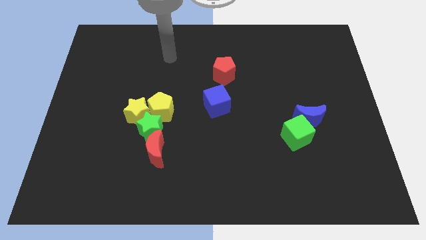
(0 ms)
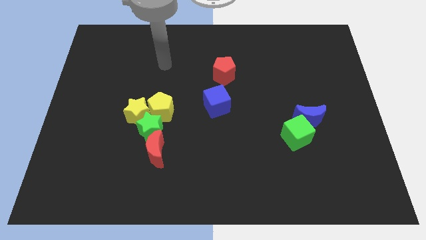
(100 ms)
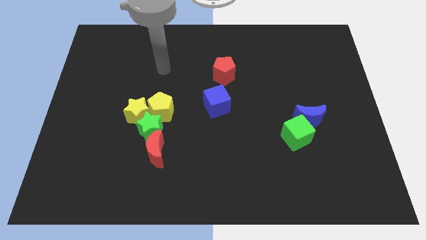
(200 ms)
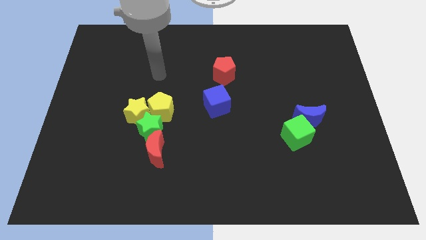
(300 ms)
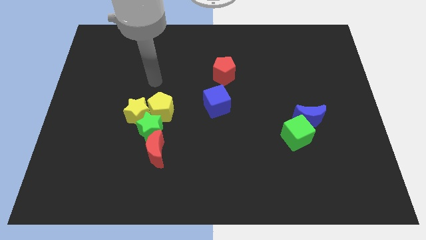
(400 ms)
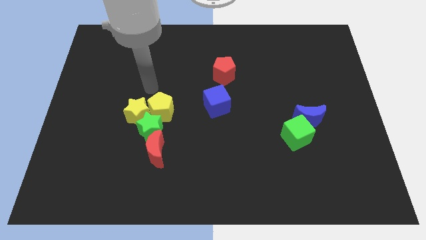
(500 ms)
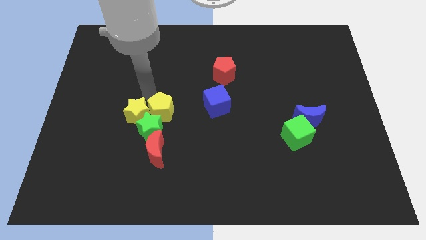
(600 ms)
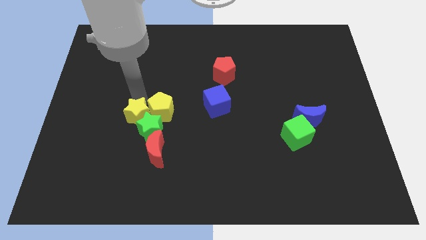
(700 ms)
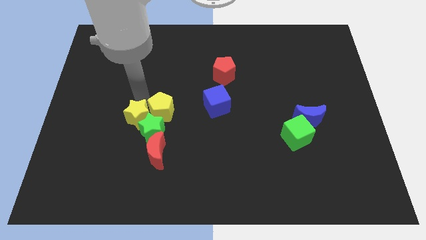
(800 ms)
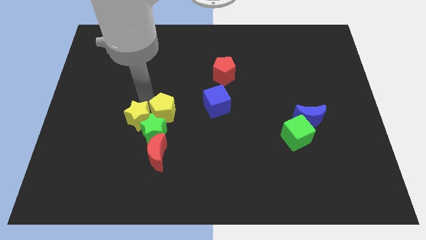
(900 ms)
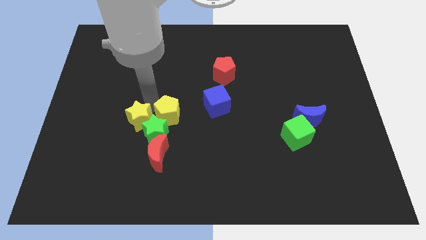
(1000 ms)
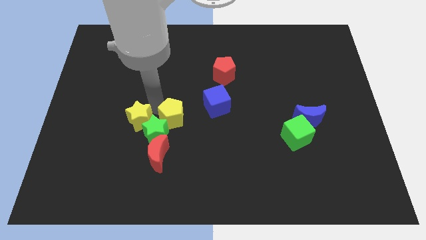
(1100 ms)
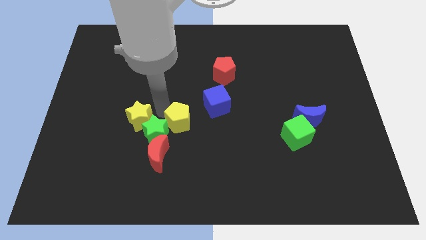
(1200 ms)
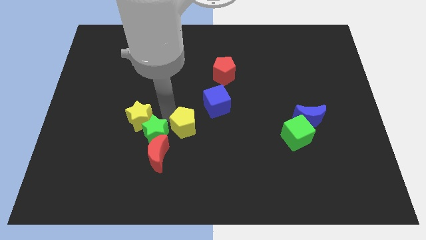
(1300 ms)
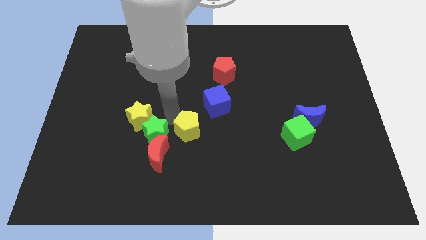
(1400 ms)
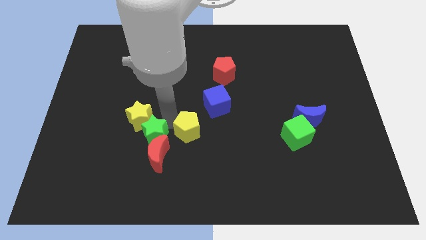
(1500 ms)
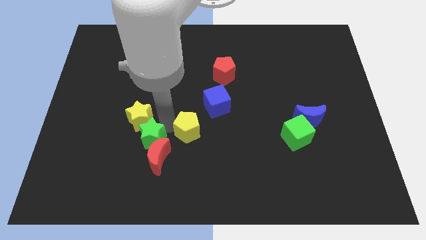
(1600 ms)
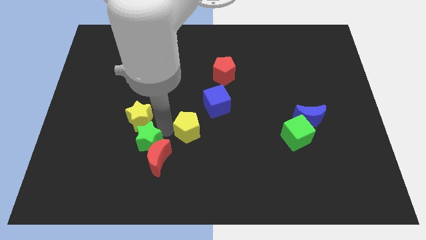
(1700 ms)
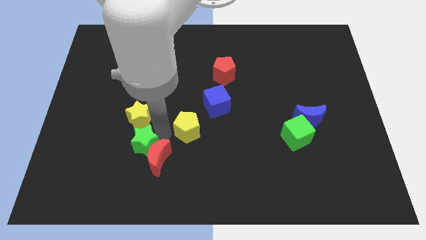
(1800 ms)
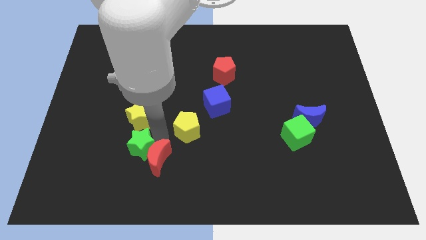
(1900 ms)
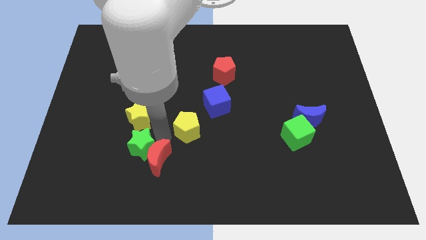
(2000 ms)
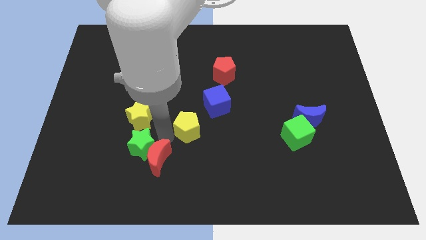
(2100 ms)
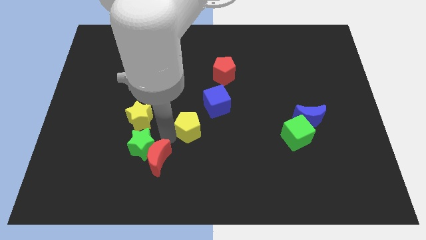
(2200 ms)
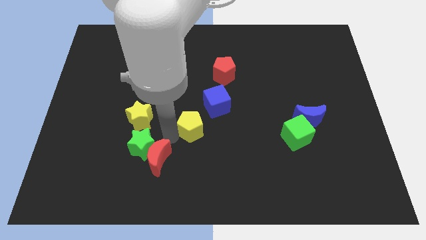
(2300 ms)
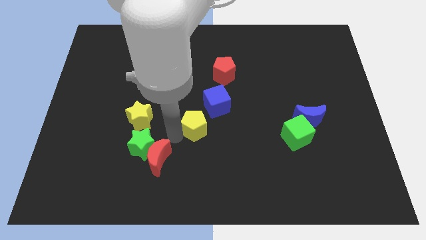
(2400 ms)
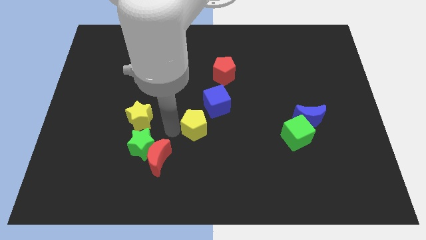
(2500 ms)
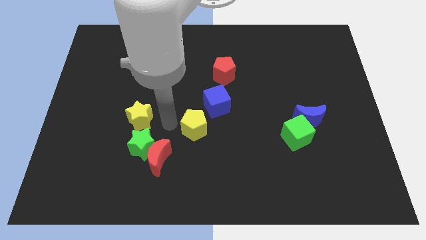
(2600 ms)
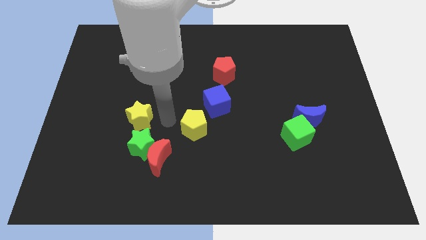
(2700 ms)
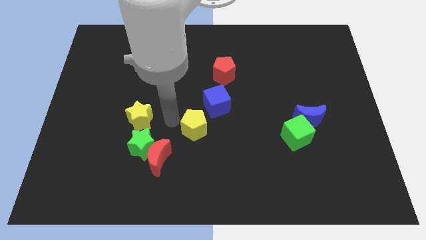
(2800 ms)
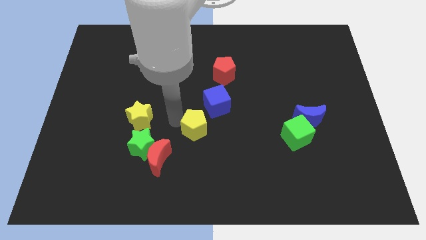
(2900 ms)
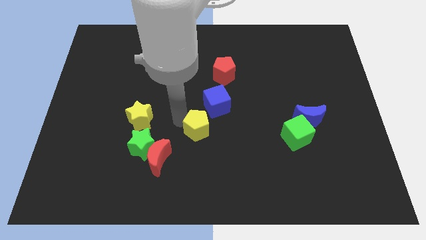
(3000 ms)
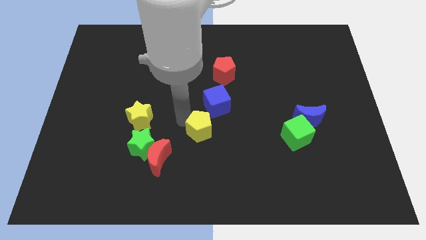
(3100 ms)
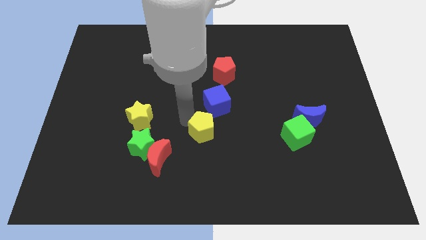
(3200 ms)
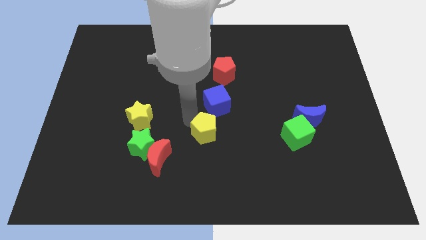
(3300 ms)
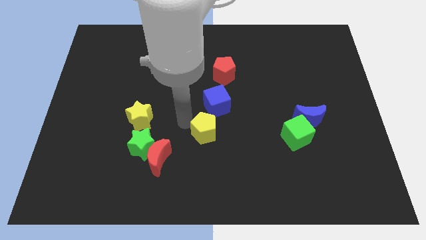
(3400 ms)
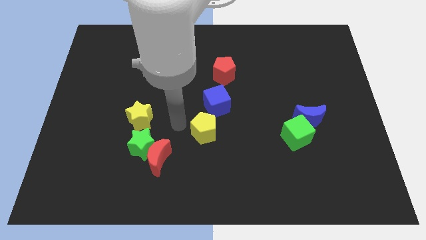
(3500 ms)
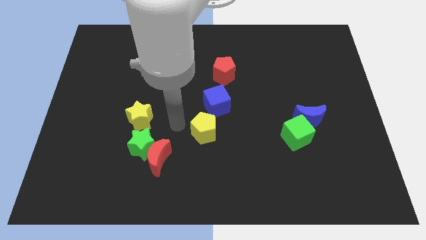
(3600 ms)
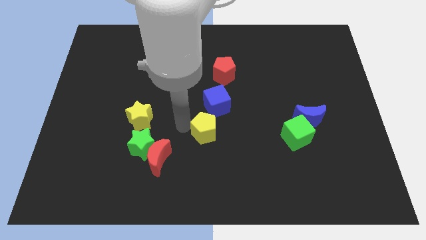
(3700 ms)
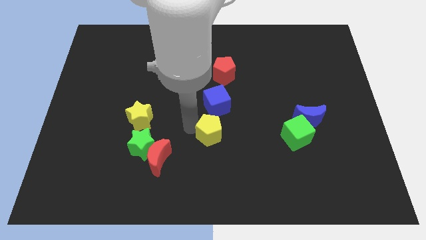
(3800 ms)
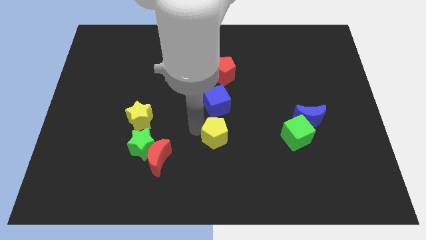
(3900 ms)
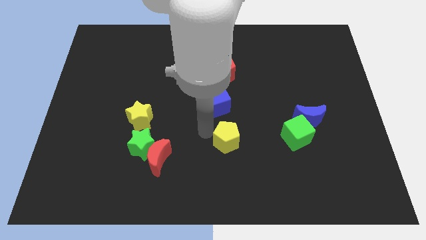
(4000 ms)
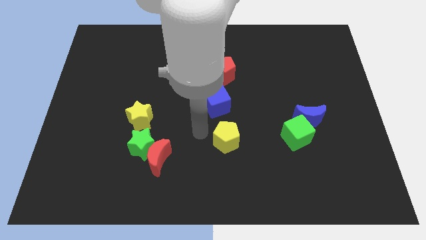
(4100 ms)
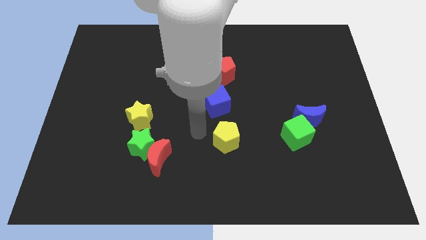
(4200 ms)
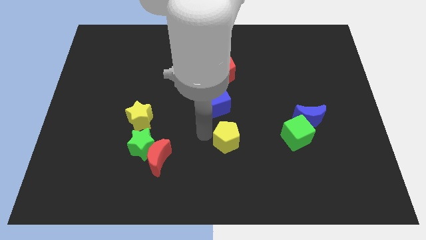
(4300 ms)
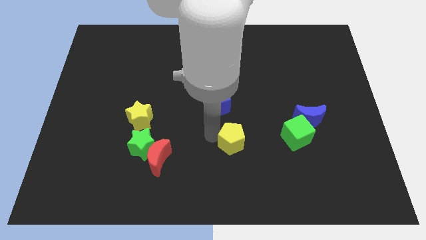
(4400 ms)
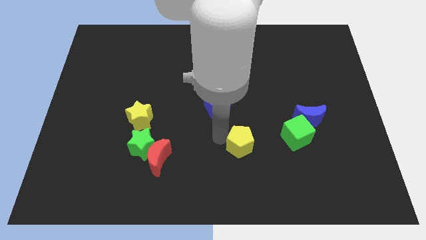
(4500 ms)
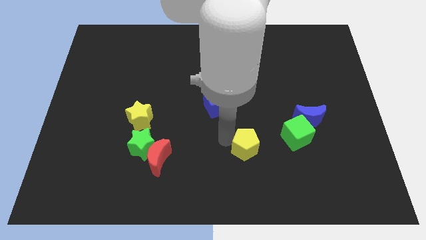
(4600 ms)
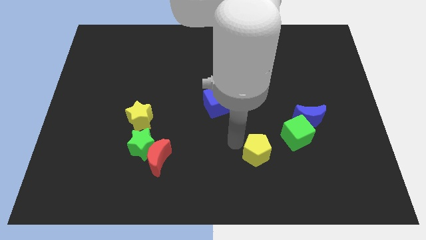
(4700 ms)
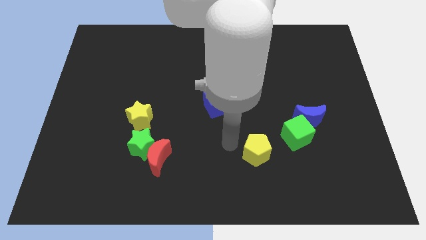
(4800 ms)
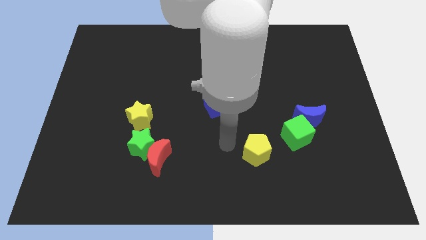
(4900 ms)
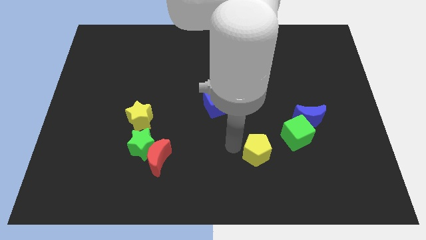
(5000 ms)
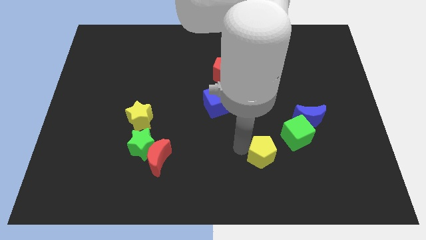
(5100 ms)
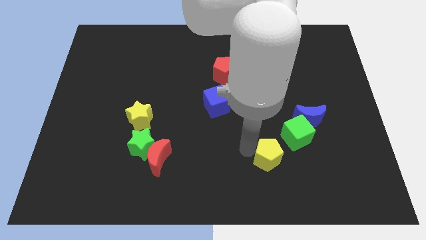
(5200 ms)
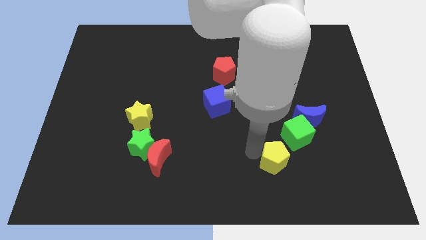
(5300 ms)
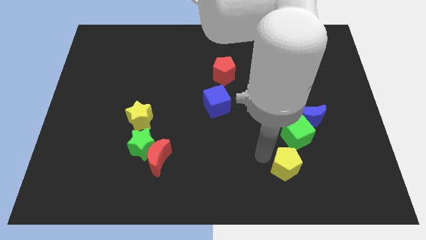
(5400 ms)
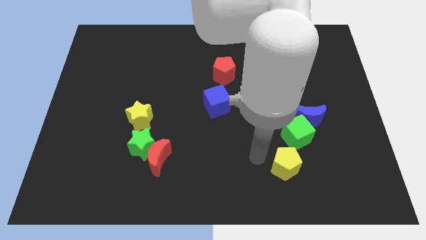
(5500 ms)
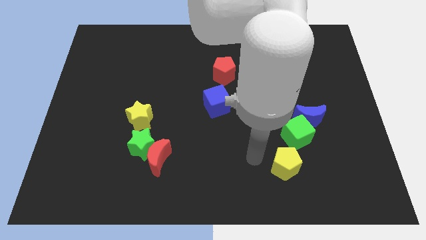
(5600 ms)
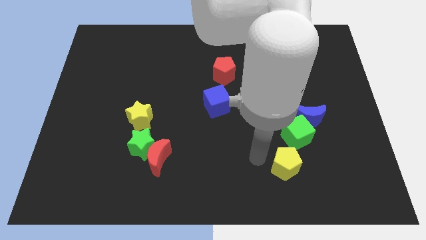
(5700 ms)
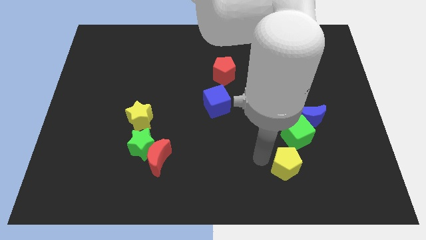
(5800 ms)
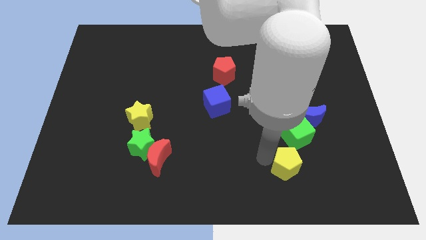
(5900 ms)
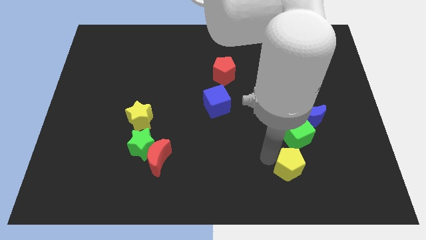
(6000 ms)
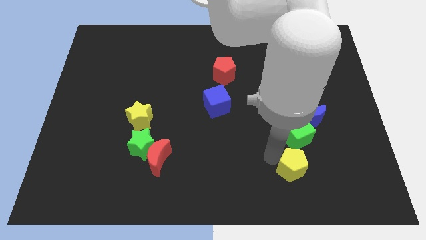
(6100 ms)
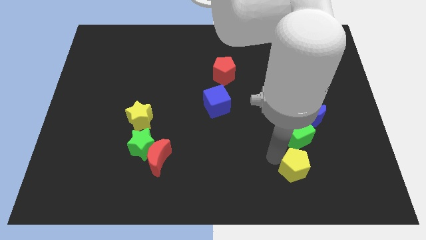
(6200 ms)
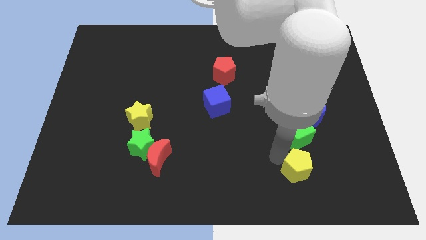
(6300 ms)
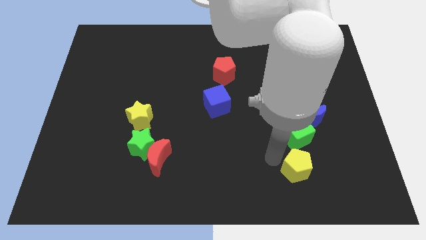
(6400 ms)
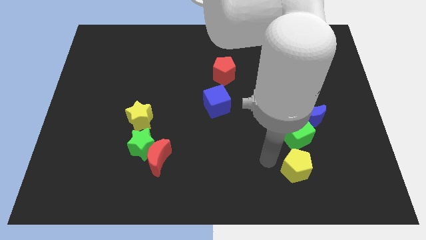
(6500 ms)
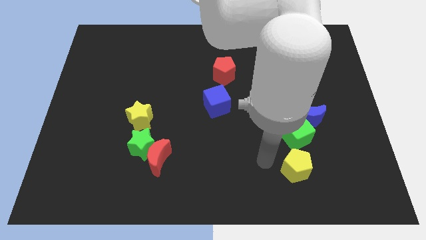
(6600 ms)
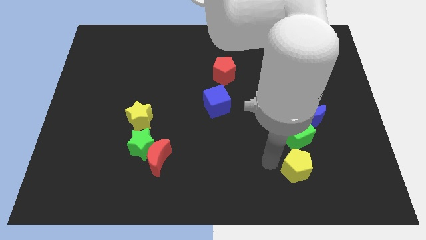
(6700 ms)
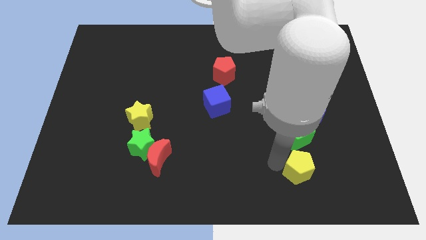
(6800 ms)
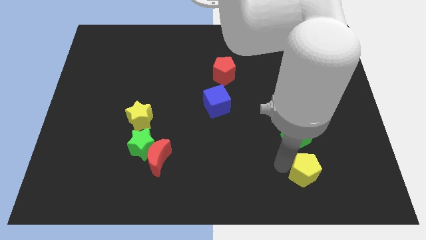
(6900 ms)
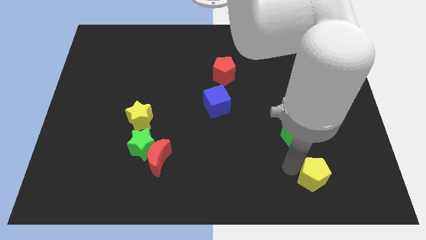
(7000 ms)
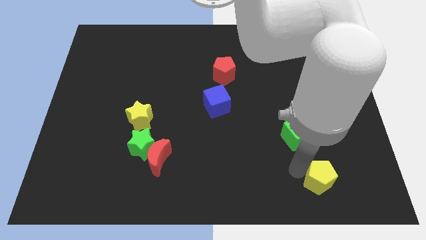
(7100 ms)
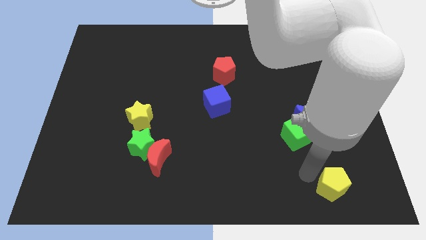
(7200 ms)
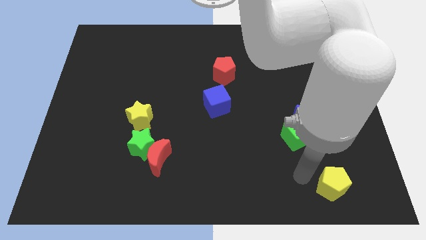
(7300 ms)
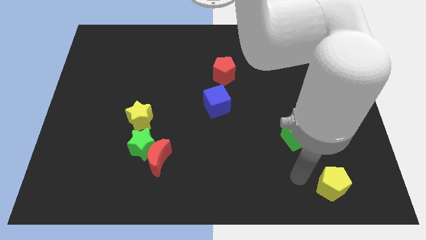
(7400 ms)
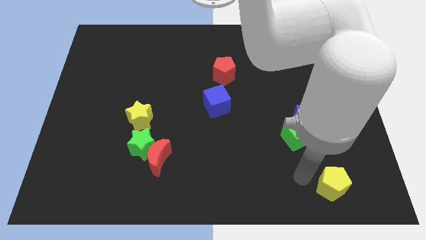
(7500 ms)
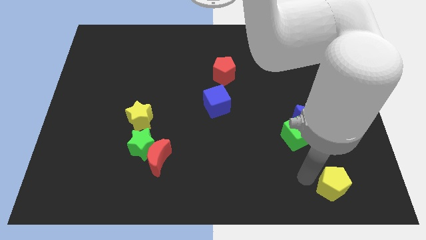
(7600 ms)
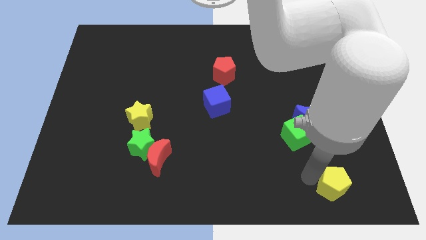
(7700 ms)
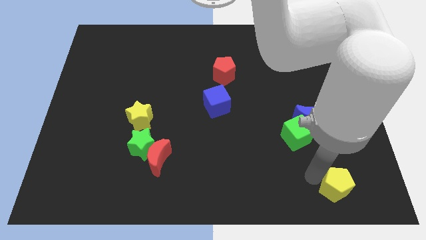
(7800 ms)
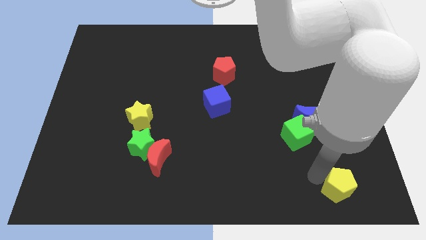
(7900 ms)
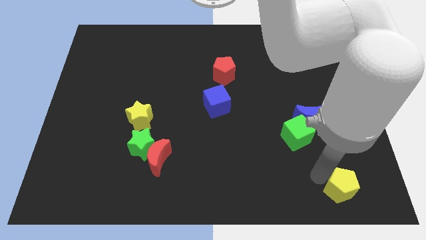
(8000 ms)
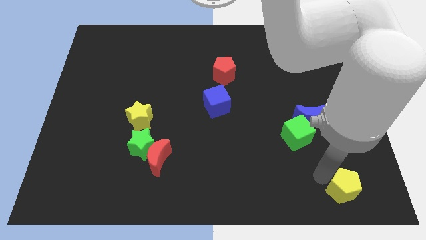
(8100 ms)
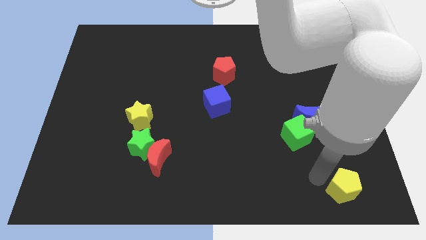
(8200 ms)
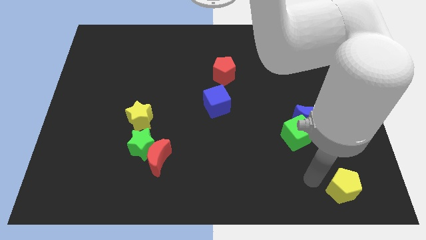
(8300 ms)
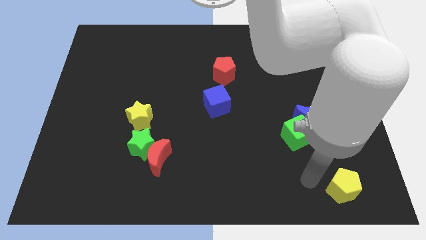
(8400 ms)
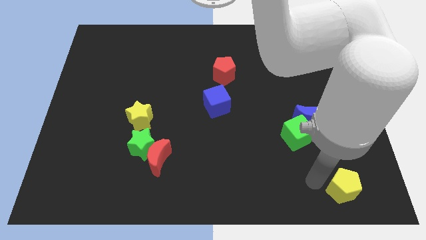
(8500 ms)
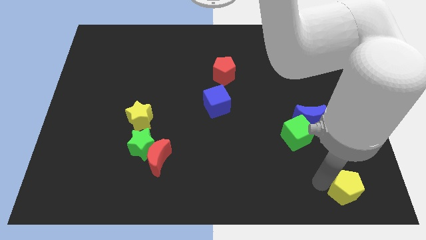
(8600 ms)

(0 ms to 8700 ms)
push the yellow pentagon to the bottom right
